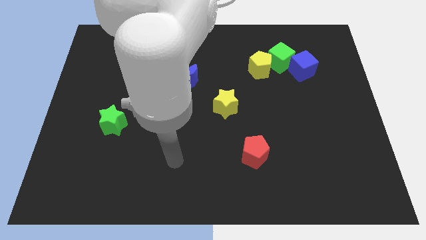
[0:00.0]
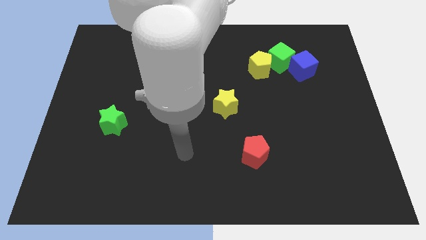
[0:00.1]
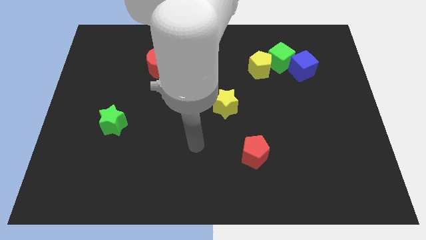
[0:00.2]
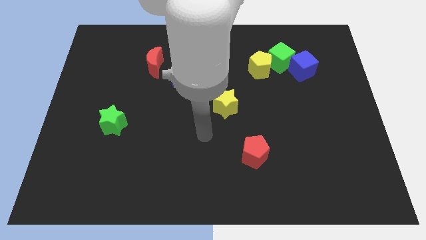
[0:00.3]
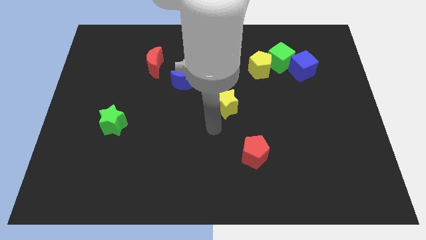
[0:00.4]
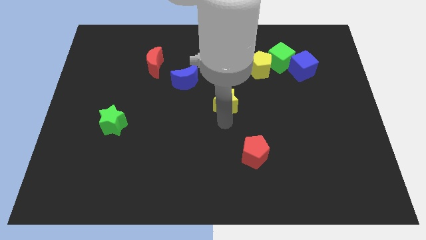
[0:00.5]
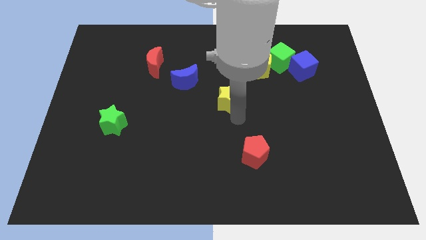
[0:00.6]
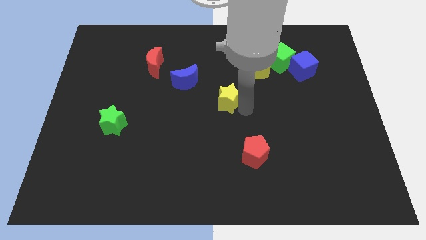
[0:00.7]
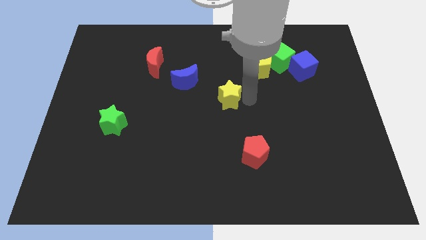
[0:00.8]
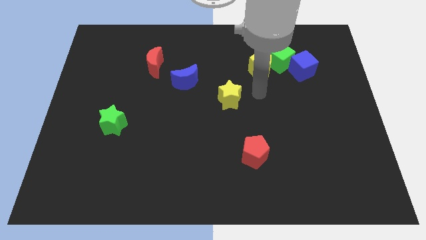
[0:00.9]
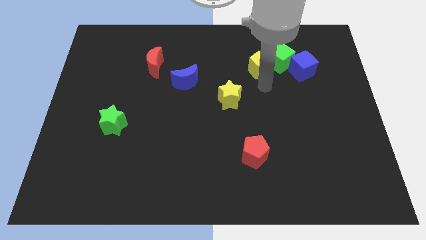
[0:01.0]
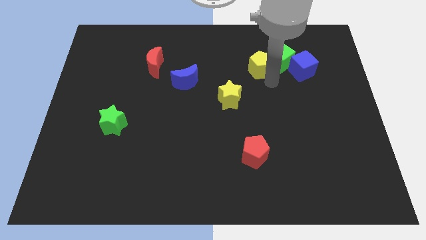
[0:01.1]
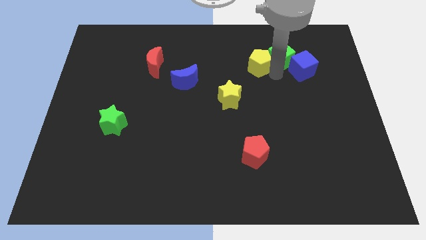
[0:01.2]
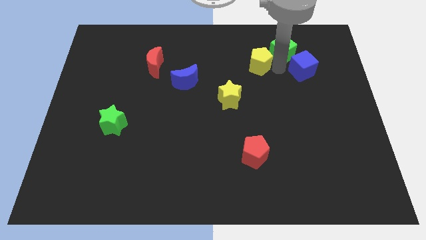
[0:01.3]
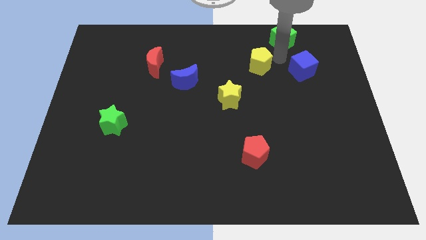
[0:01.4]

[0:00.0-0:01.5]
pull the yellow pentagon apart from the green cube

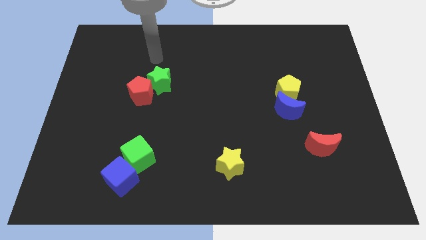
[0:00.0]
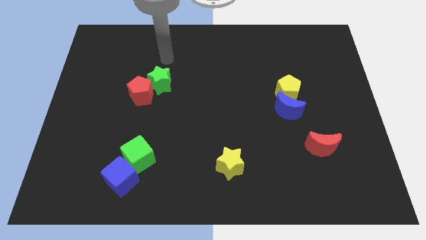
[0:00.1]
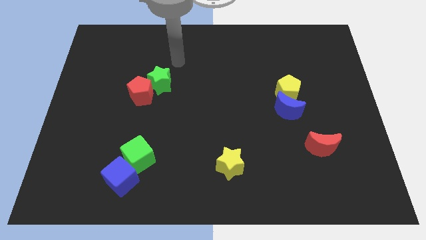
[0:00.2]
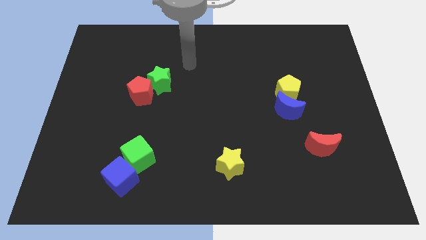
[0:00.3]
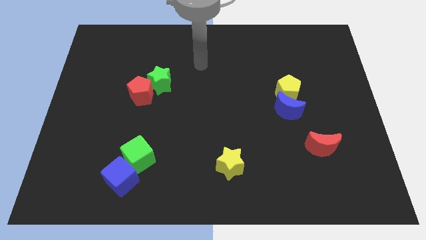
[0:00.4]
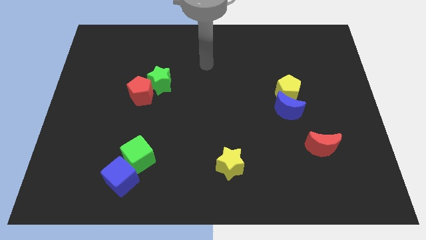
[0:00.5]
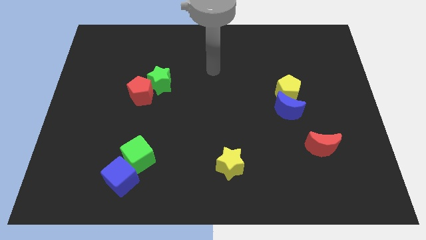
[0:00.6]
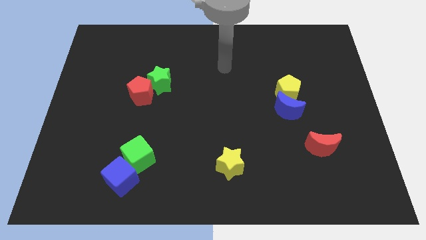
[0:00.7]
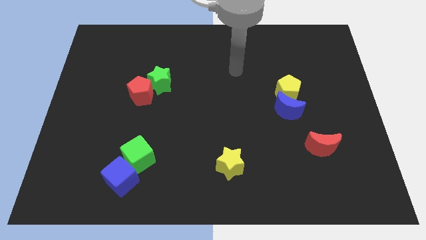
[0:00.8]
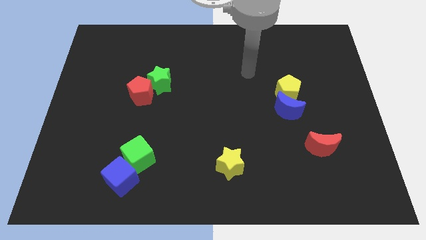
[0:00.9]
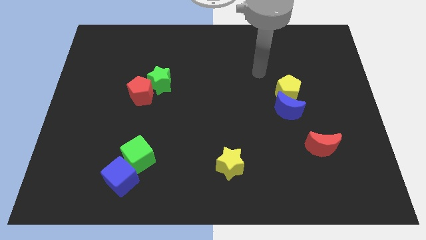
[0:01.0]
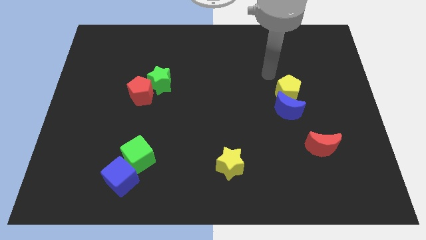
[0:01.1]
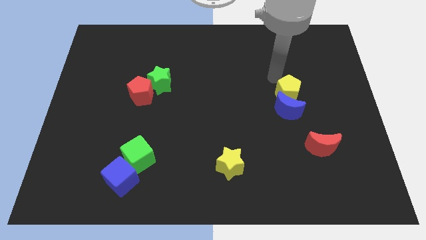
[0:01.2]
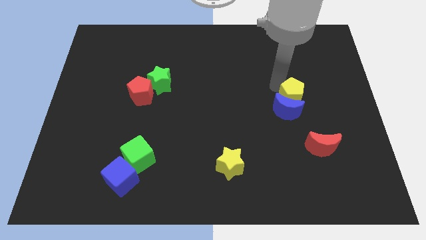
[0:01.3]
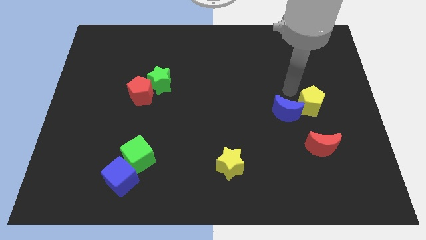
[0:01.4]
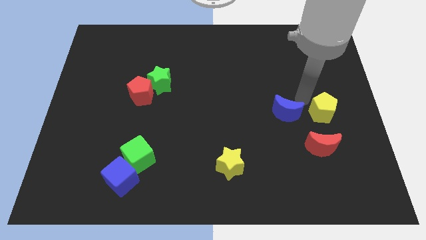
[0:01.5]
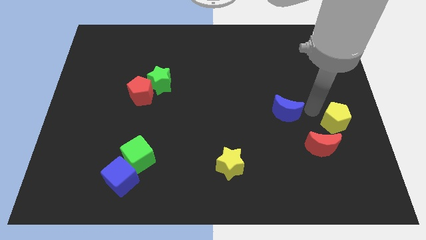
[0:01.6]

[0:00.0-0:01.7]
separate the blue moon from the yellow pentagon

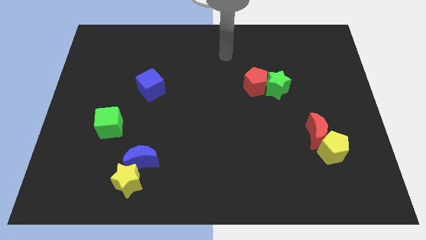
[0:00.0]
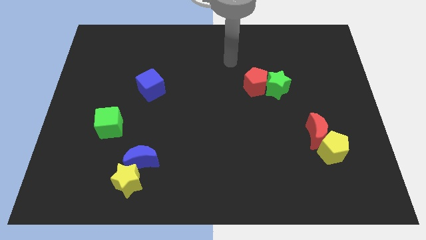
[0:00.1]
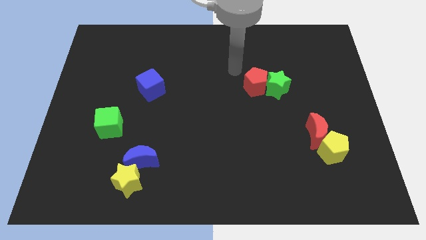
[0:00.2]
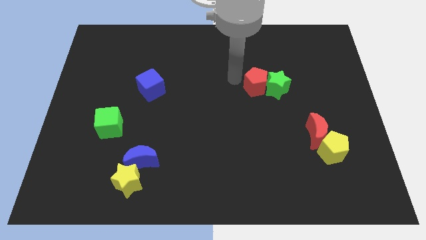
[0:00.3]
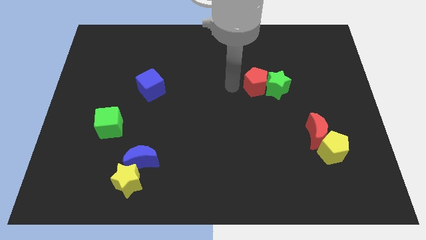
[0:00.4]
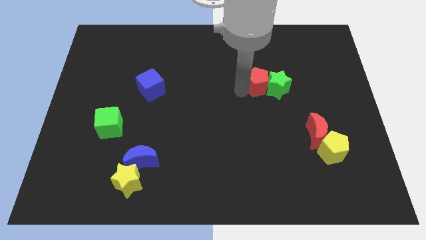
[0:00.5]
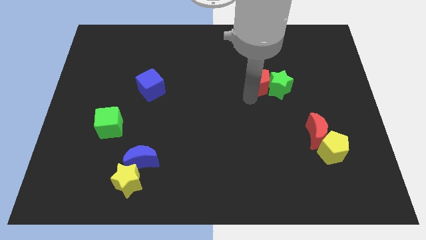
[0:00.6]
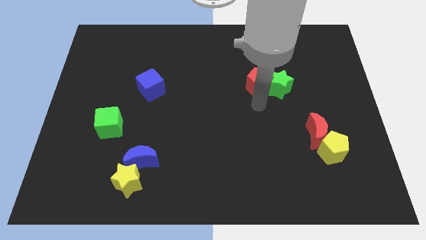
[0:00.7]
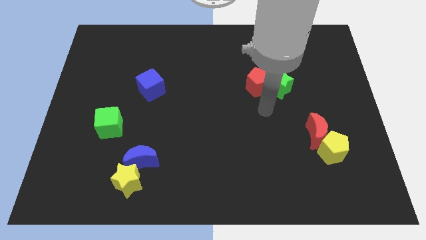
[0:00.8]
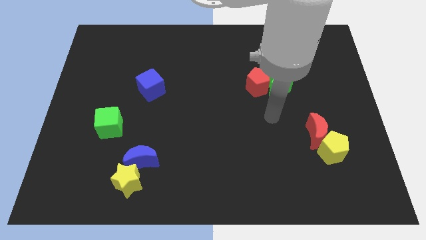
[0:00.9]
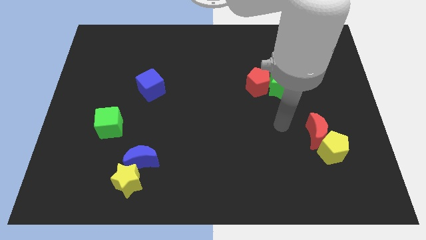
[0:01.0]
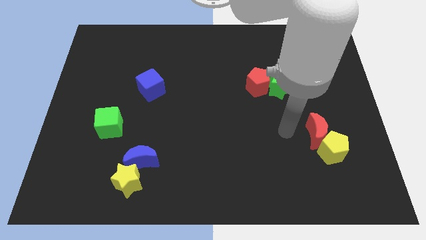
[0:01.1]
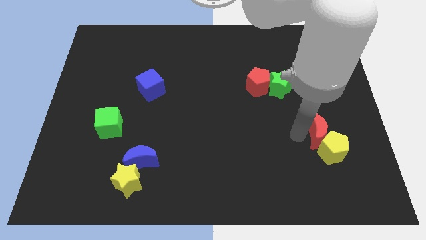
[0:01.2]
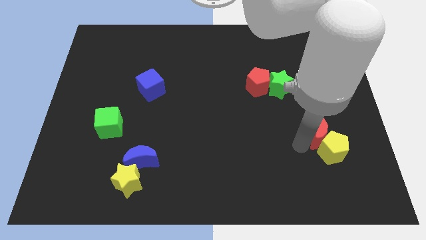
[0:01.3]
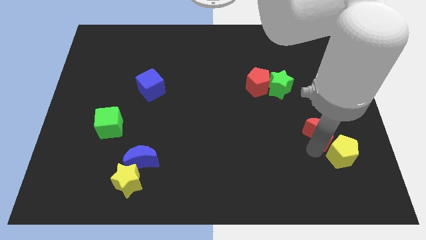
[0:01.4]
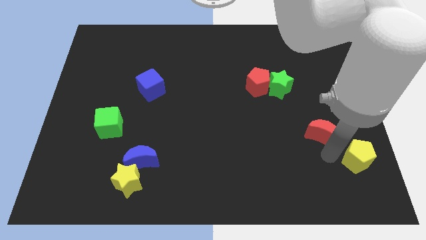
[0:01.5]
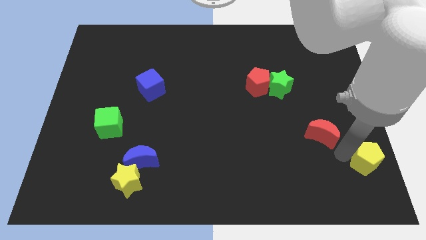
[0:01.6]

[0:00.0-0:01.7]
separate the red moon from the yellow pentagon

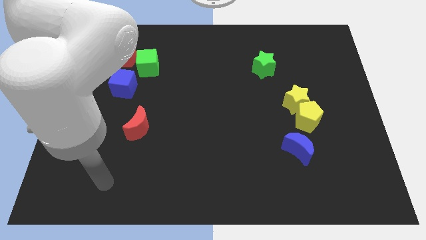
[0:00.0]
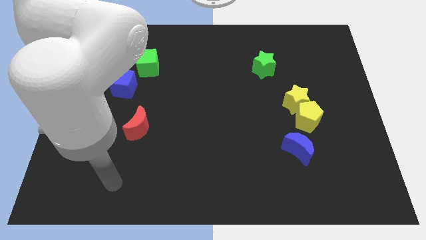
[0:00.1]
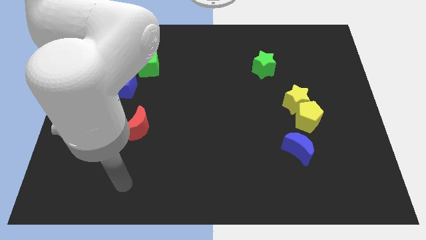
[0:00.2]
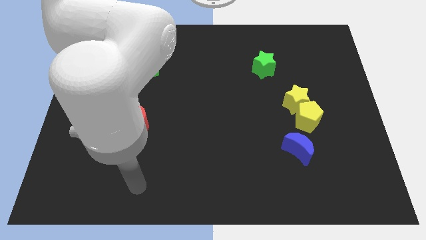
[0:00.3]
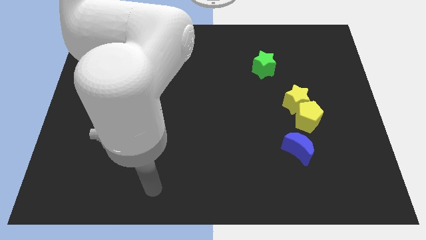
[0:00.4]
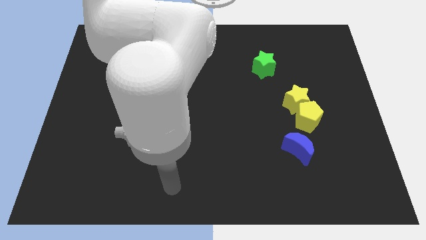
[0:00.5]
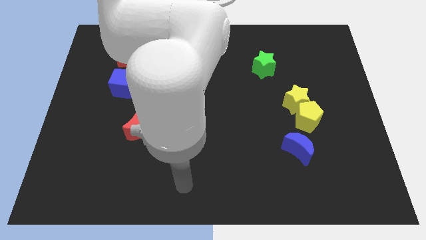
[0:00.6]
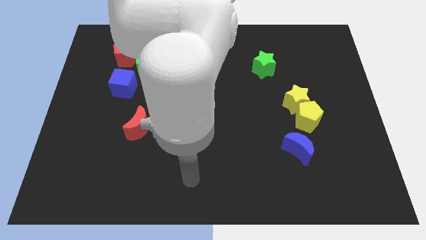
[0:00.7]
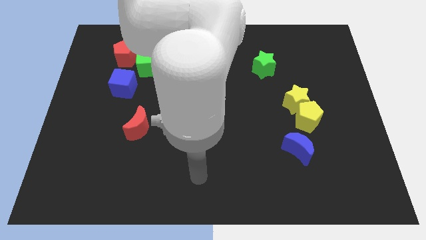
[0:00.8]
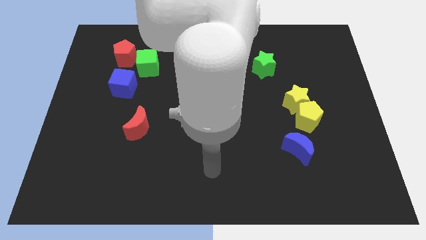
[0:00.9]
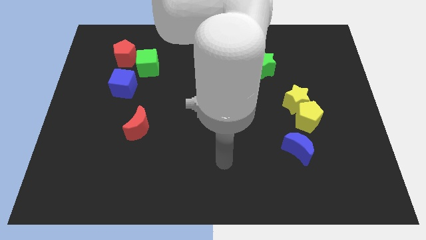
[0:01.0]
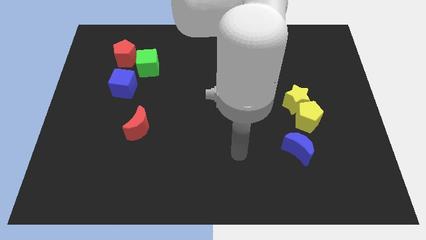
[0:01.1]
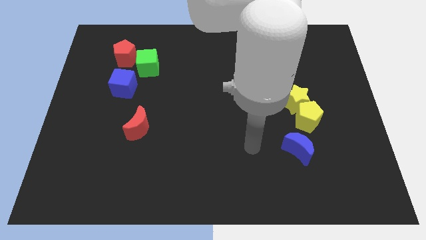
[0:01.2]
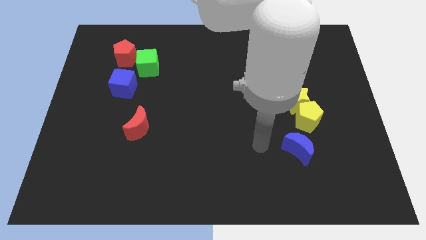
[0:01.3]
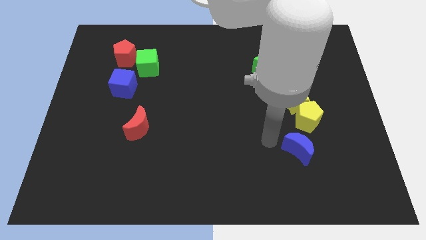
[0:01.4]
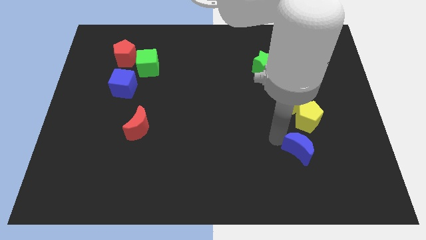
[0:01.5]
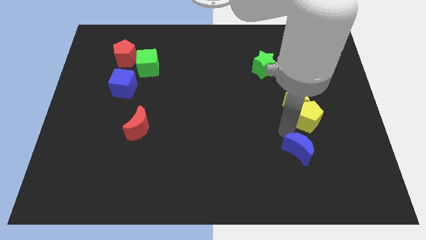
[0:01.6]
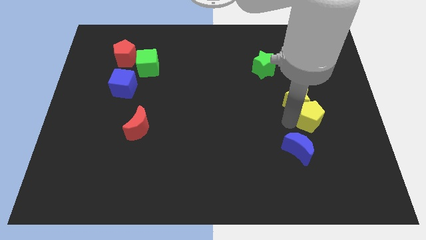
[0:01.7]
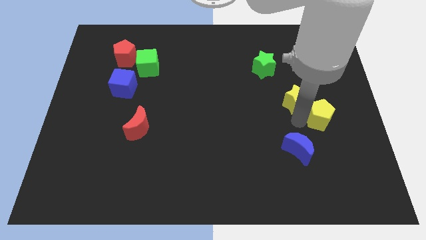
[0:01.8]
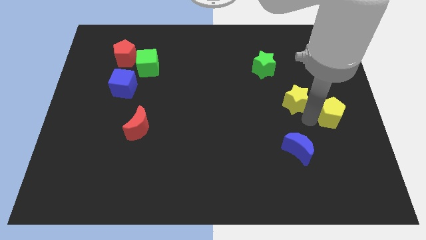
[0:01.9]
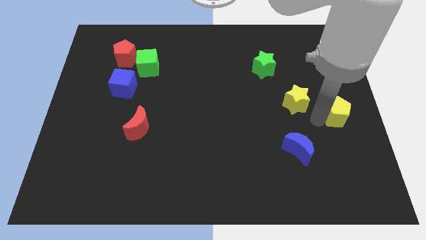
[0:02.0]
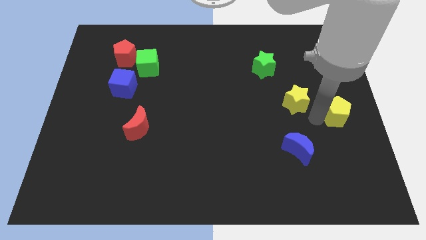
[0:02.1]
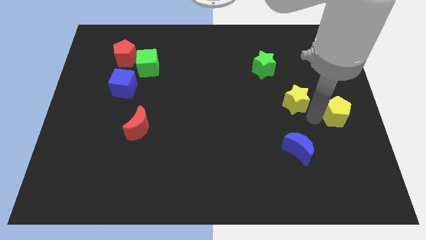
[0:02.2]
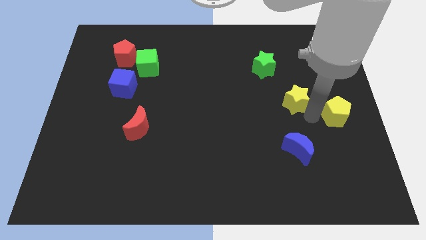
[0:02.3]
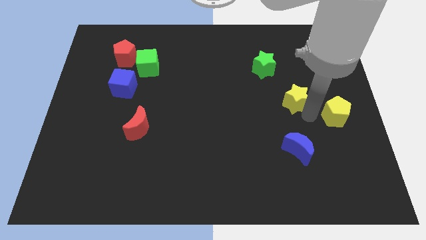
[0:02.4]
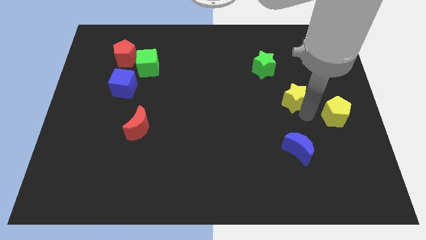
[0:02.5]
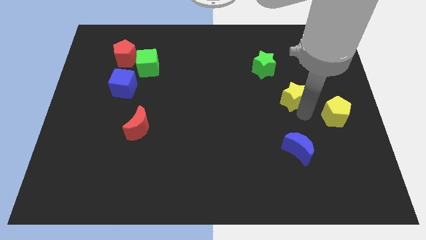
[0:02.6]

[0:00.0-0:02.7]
separate the yellow star from the yellow pentagon

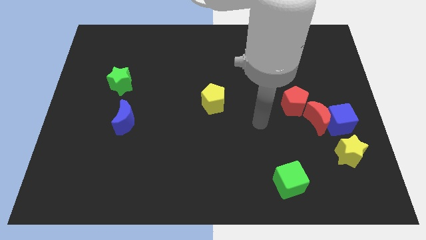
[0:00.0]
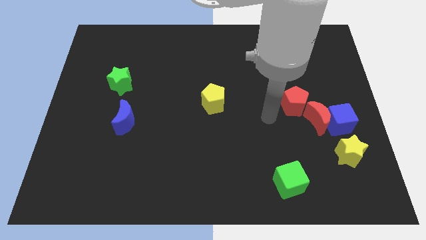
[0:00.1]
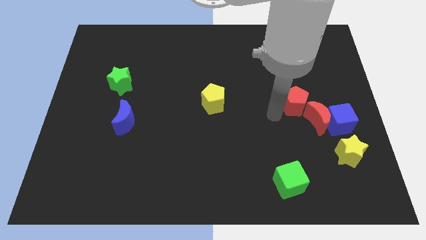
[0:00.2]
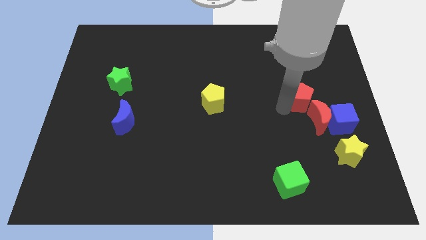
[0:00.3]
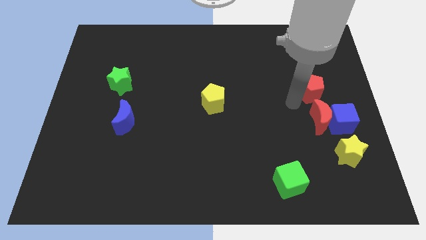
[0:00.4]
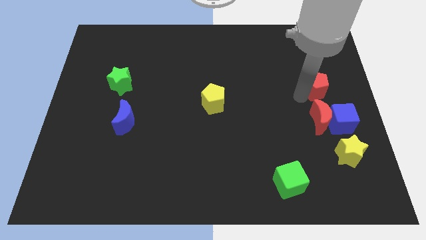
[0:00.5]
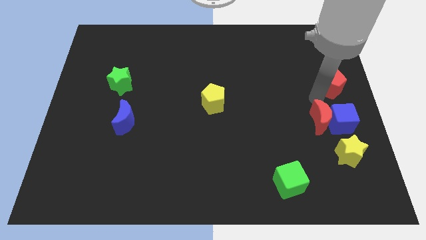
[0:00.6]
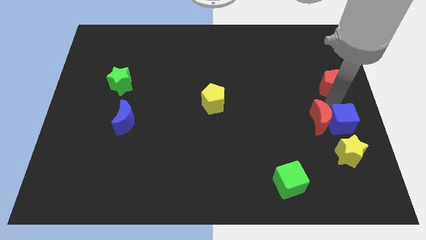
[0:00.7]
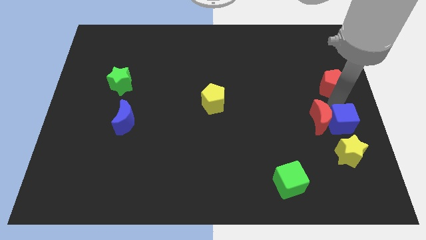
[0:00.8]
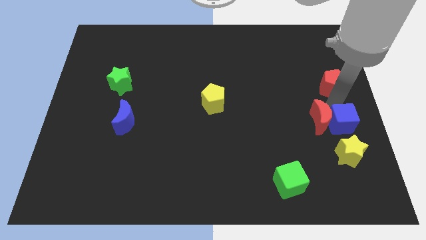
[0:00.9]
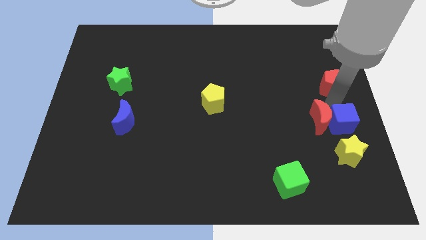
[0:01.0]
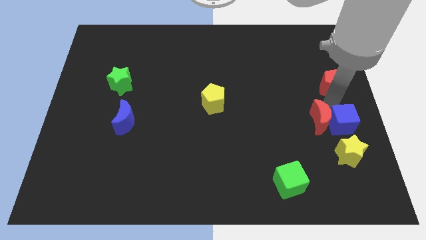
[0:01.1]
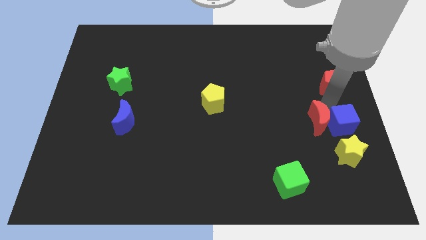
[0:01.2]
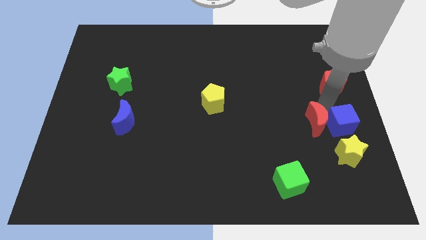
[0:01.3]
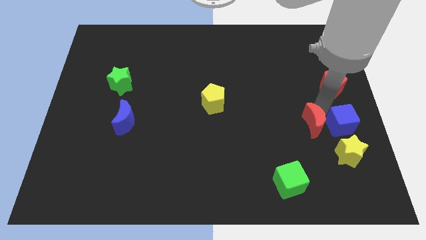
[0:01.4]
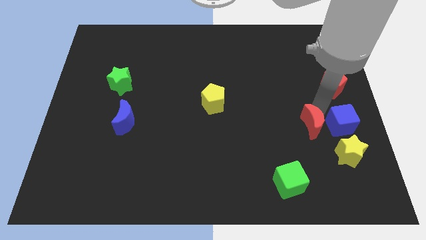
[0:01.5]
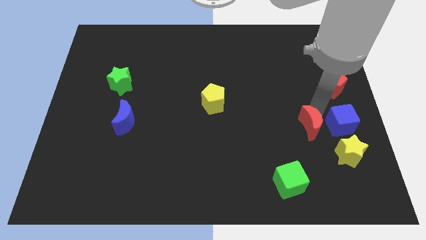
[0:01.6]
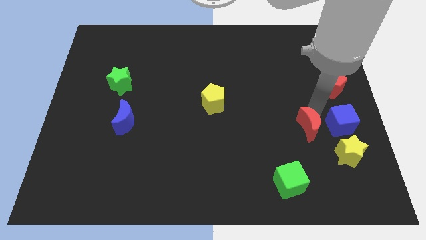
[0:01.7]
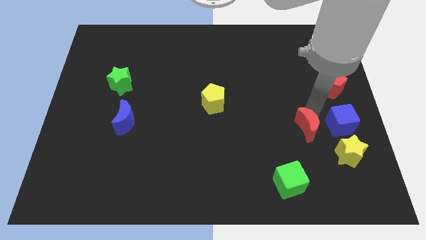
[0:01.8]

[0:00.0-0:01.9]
move the red moon away from the blue cube and red pentagon
